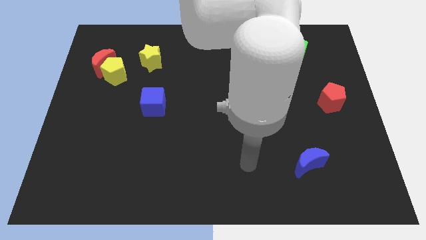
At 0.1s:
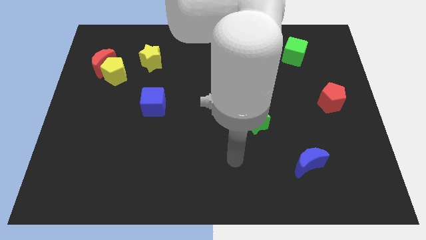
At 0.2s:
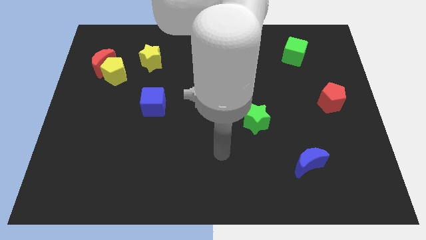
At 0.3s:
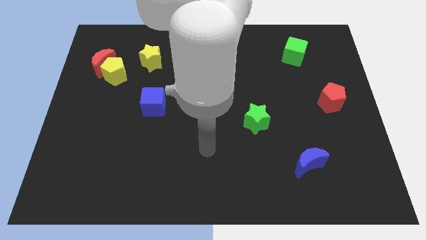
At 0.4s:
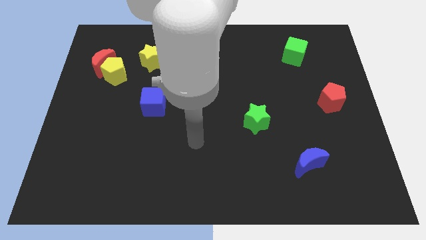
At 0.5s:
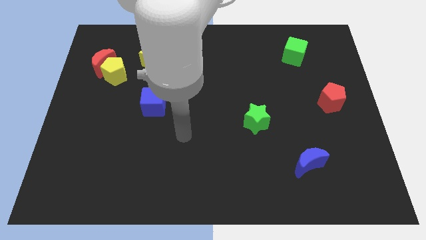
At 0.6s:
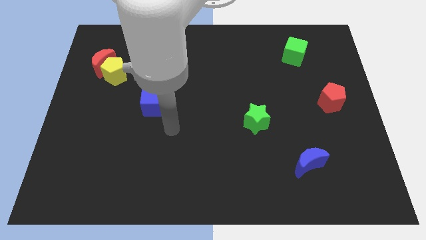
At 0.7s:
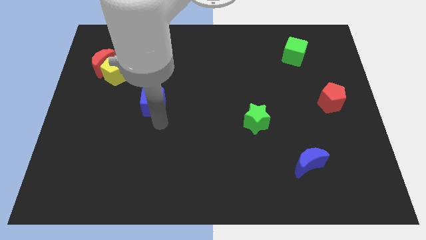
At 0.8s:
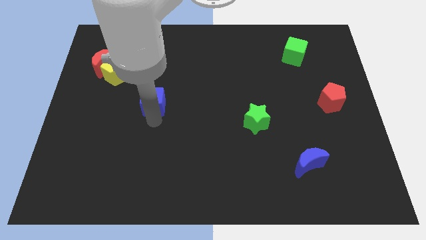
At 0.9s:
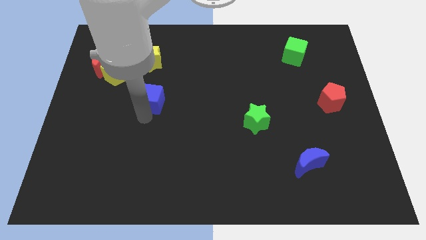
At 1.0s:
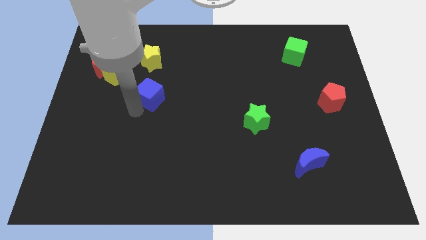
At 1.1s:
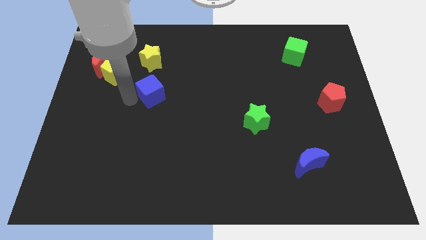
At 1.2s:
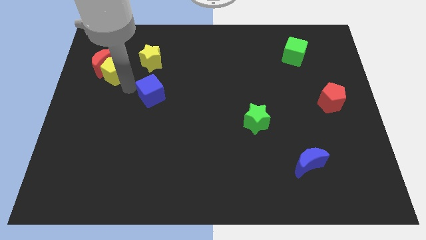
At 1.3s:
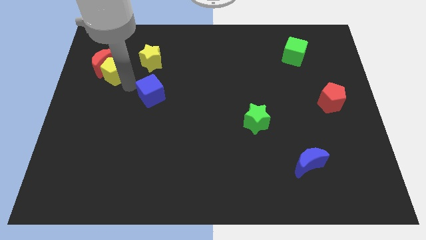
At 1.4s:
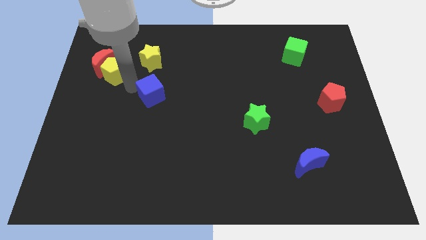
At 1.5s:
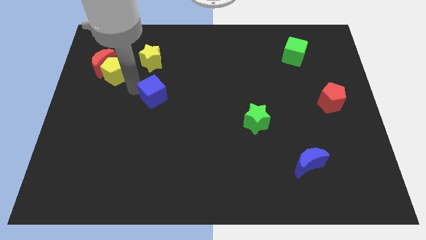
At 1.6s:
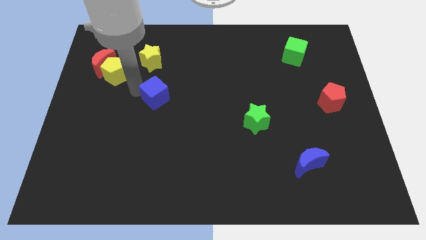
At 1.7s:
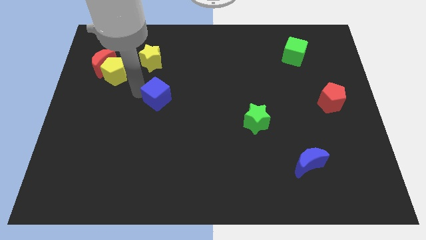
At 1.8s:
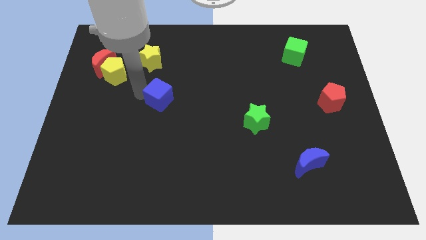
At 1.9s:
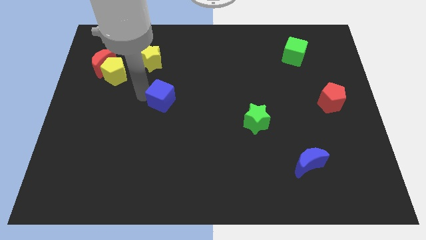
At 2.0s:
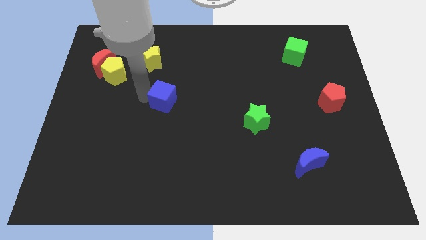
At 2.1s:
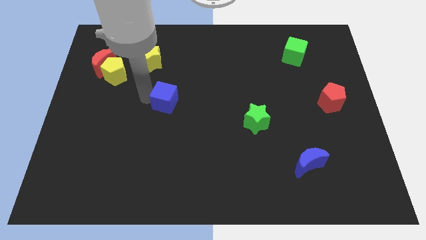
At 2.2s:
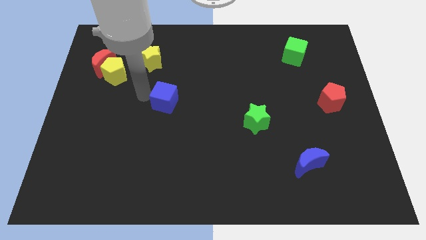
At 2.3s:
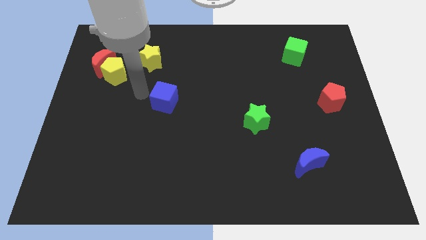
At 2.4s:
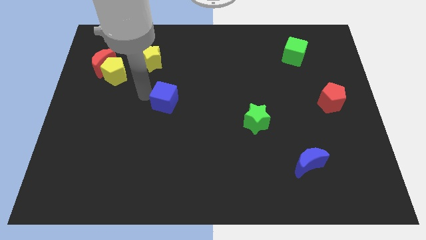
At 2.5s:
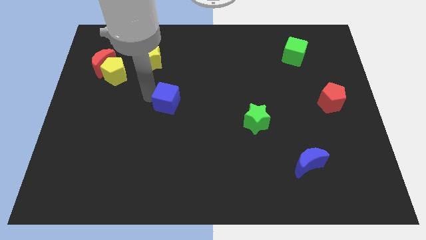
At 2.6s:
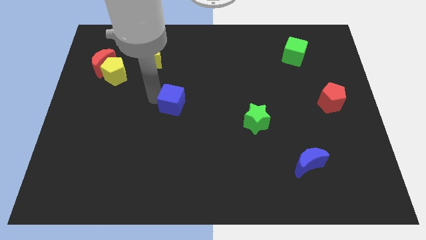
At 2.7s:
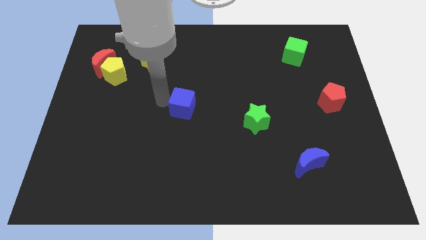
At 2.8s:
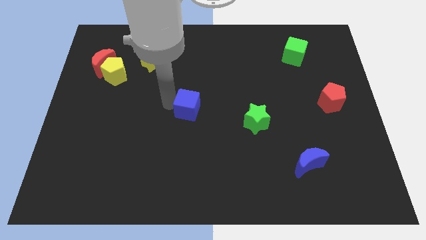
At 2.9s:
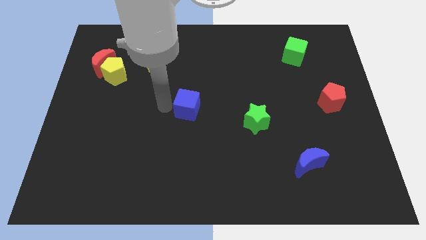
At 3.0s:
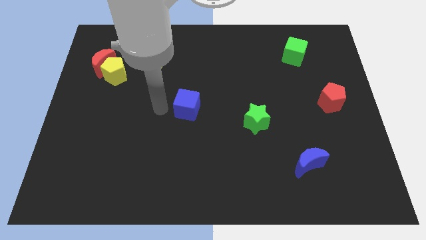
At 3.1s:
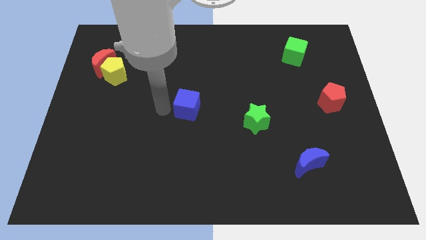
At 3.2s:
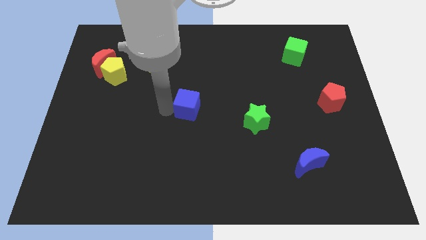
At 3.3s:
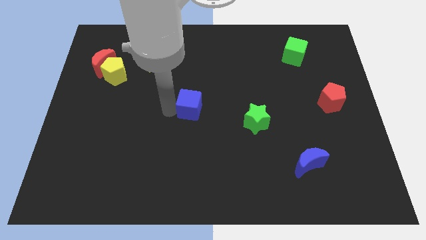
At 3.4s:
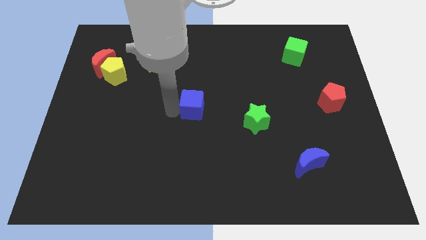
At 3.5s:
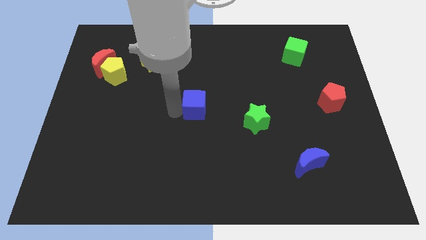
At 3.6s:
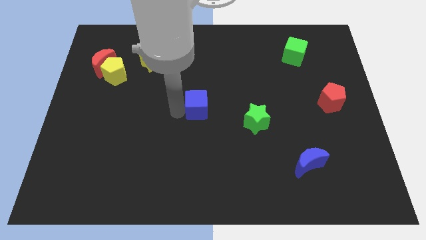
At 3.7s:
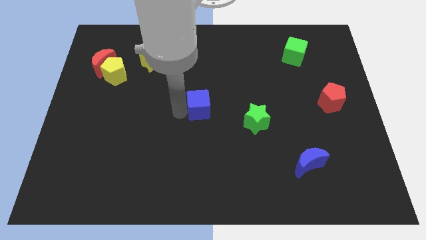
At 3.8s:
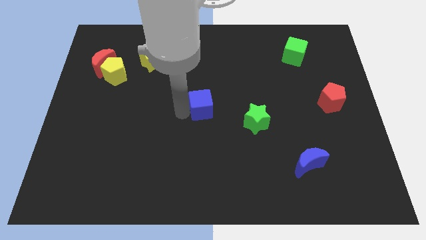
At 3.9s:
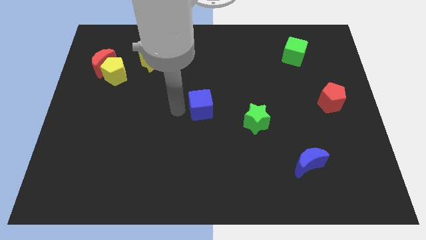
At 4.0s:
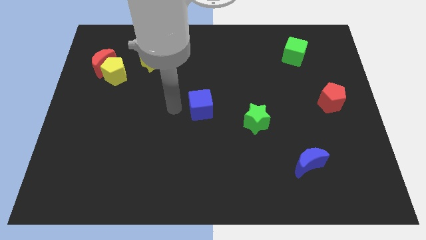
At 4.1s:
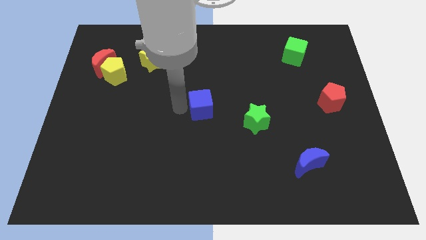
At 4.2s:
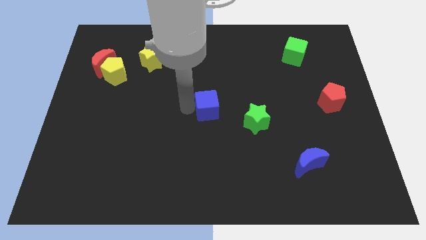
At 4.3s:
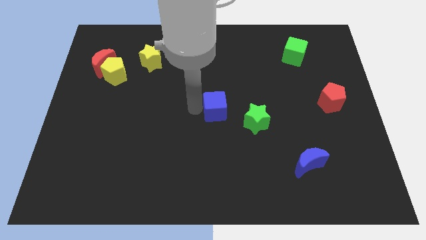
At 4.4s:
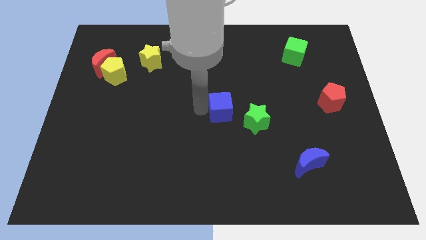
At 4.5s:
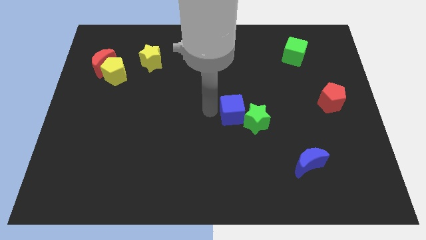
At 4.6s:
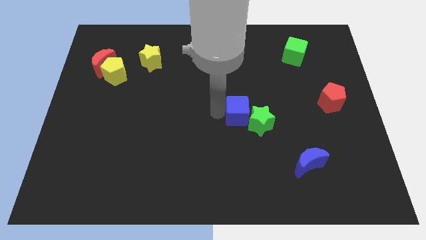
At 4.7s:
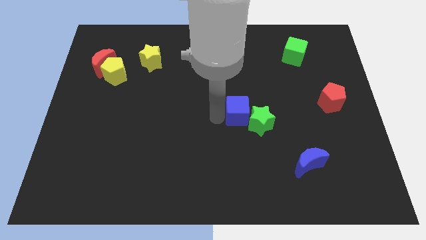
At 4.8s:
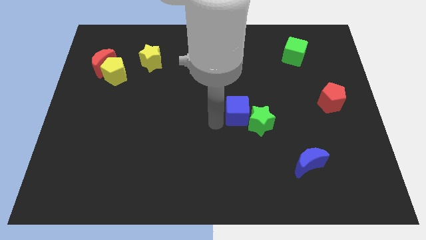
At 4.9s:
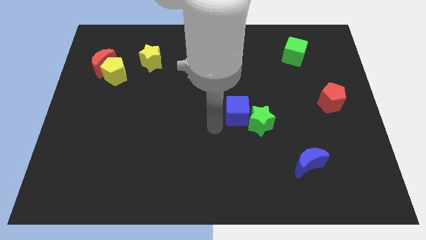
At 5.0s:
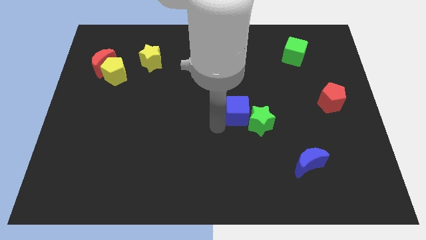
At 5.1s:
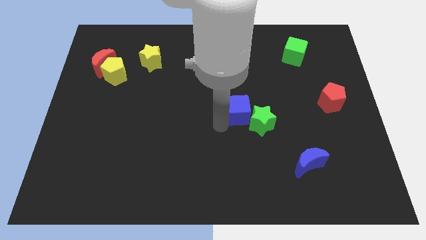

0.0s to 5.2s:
push the blue cube to the right

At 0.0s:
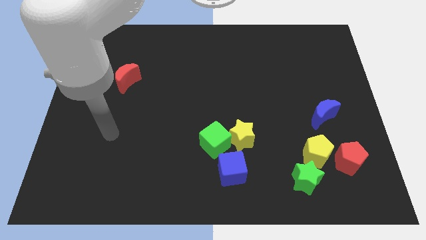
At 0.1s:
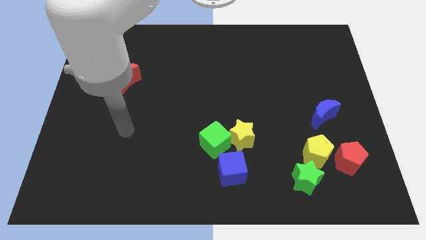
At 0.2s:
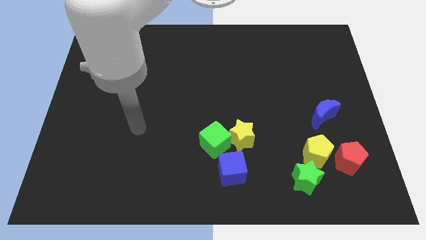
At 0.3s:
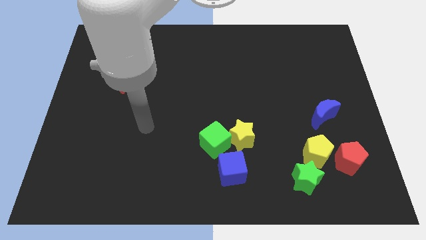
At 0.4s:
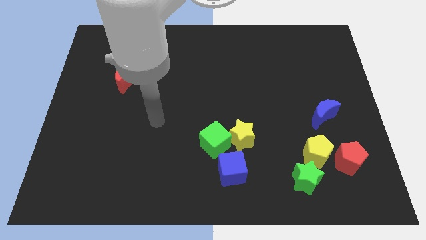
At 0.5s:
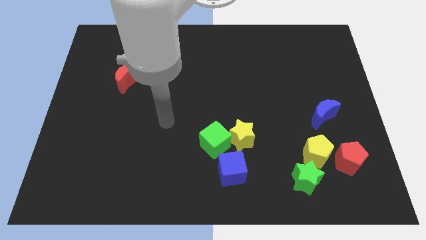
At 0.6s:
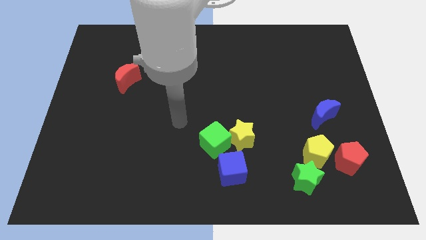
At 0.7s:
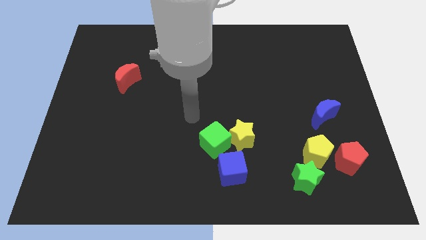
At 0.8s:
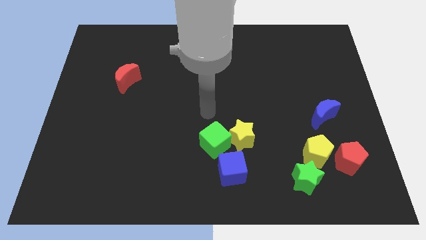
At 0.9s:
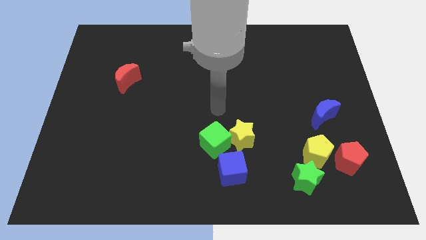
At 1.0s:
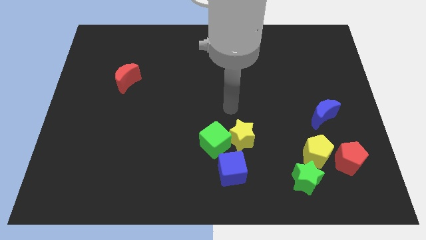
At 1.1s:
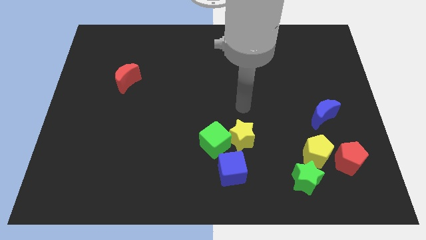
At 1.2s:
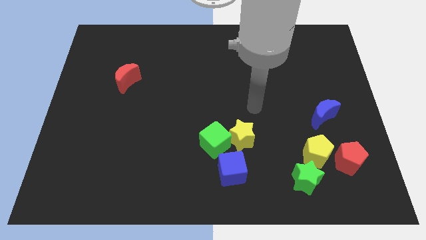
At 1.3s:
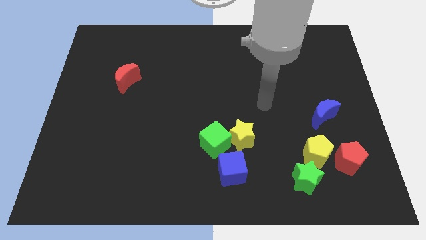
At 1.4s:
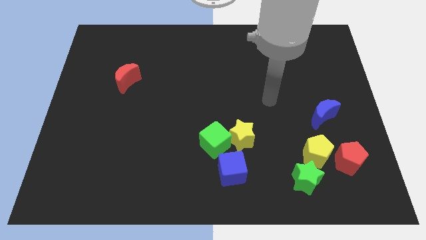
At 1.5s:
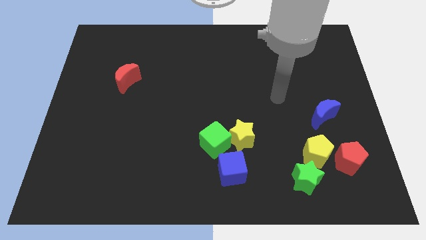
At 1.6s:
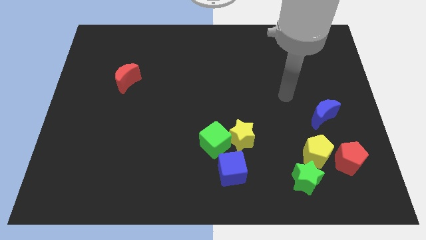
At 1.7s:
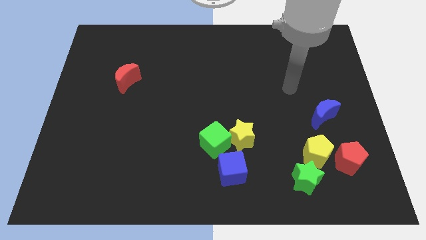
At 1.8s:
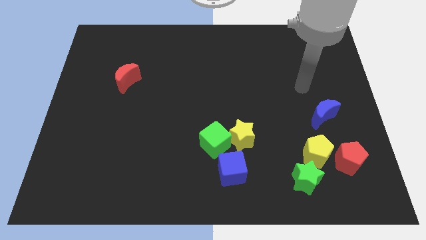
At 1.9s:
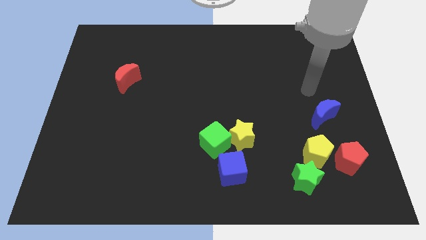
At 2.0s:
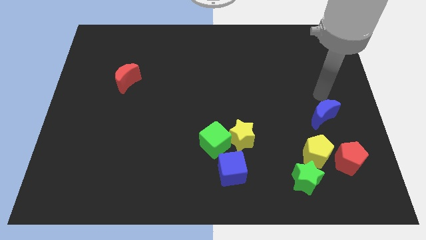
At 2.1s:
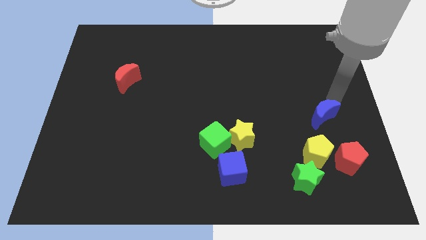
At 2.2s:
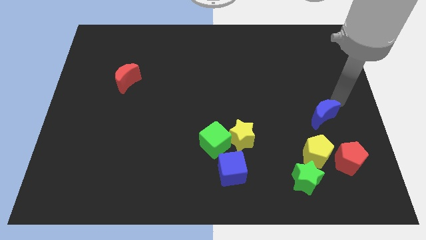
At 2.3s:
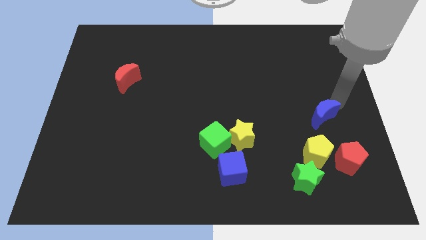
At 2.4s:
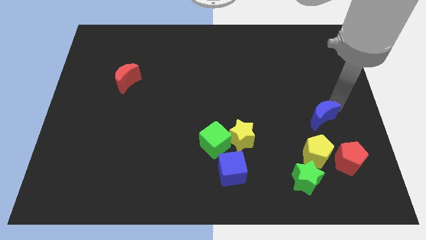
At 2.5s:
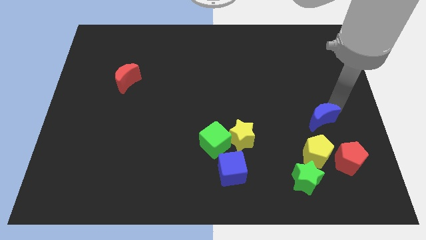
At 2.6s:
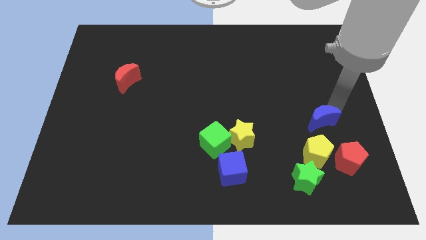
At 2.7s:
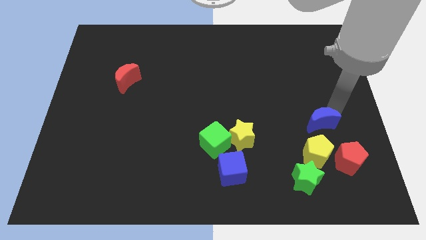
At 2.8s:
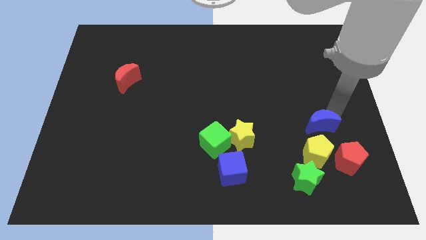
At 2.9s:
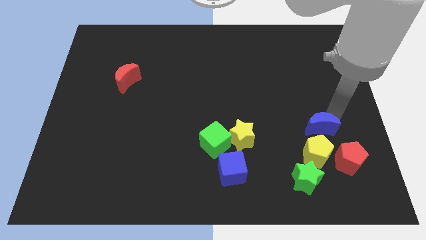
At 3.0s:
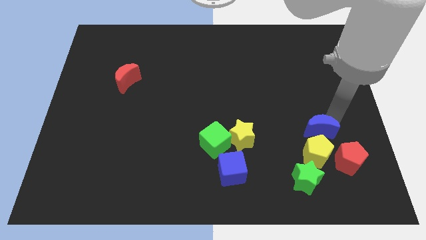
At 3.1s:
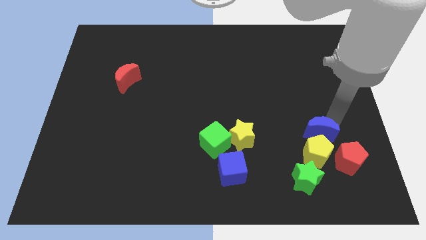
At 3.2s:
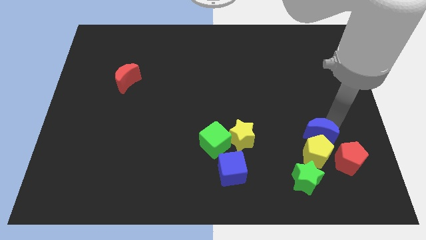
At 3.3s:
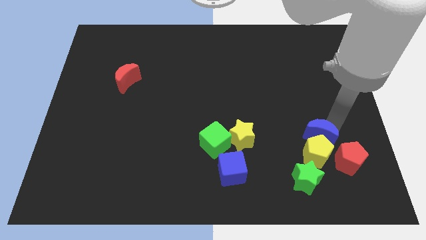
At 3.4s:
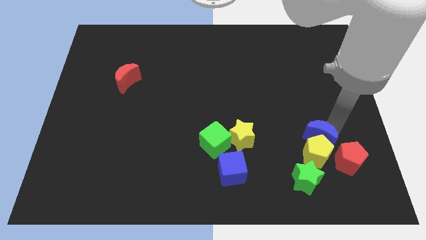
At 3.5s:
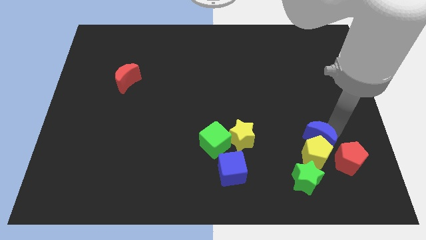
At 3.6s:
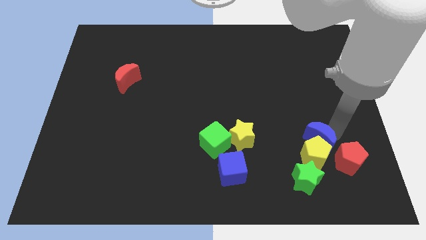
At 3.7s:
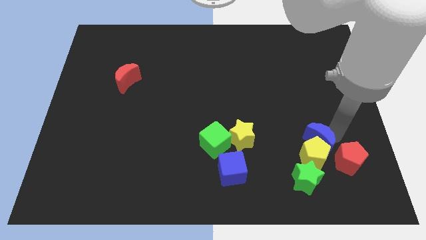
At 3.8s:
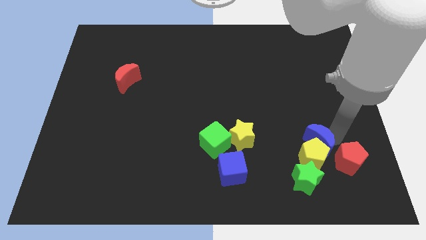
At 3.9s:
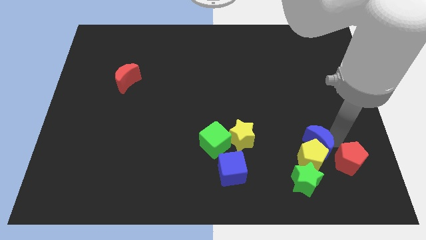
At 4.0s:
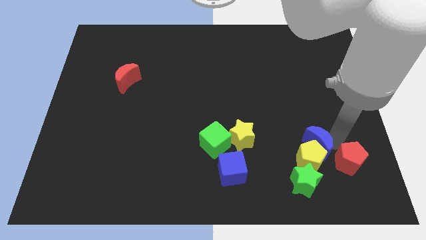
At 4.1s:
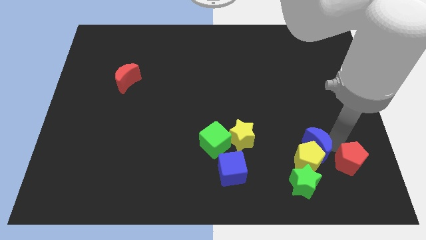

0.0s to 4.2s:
slightly move the blue moon down and left diagonally
